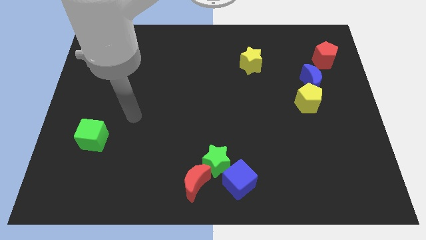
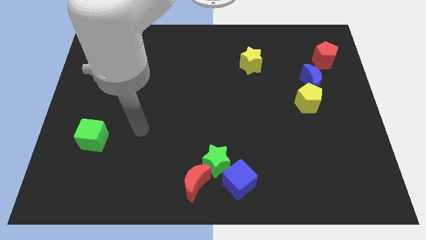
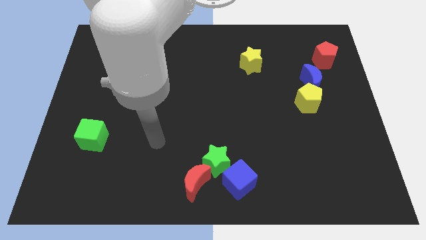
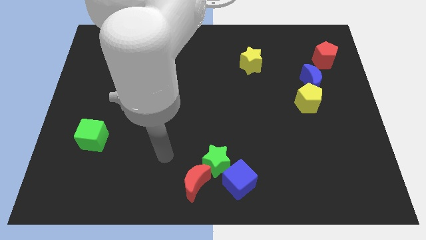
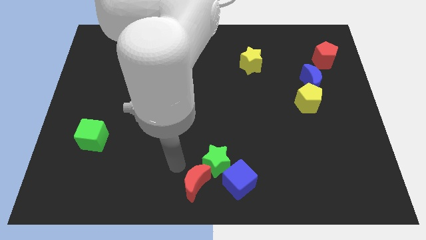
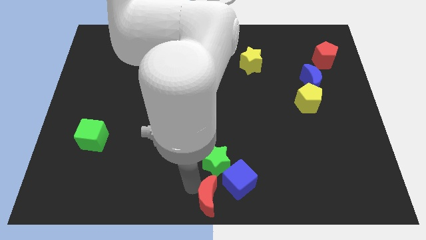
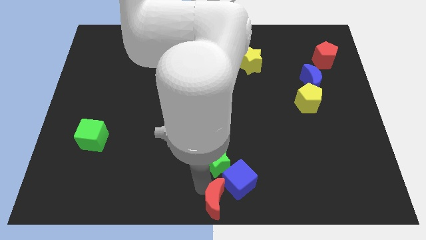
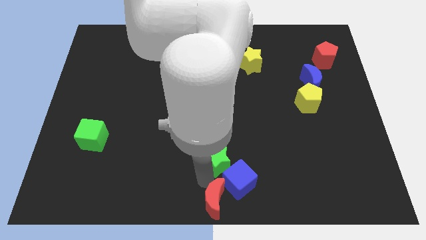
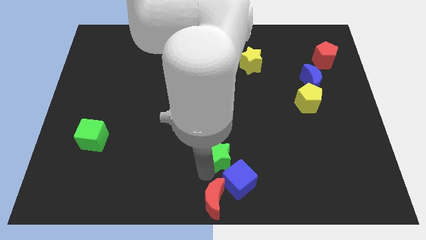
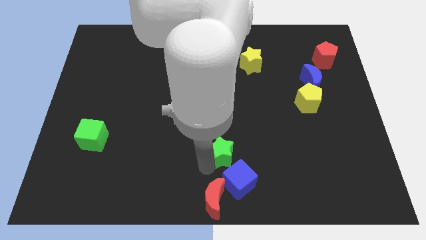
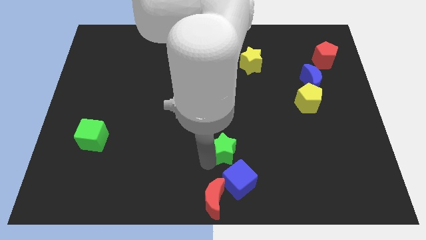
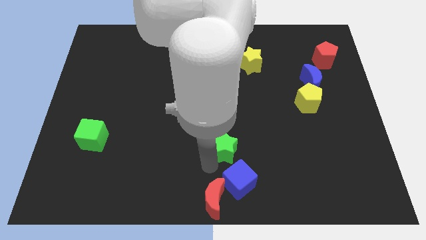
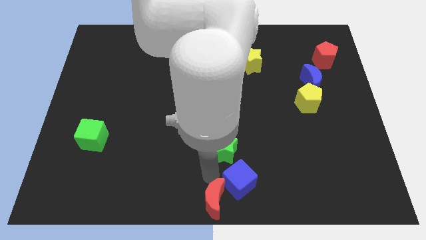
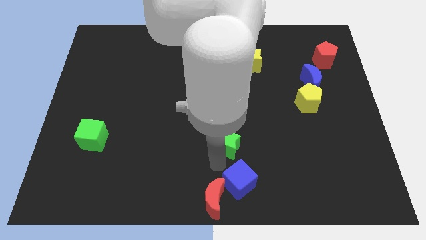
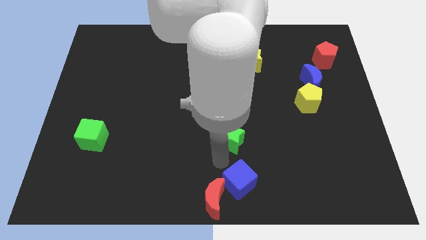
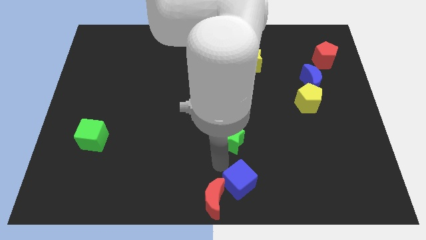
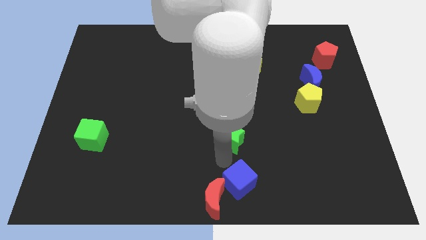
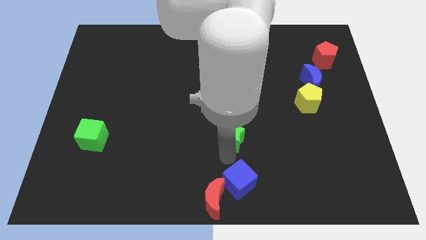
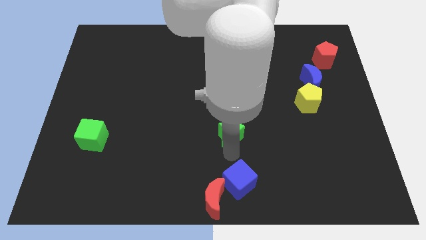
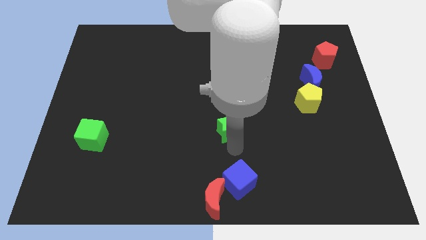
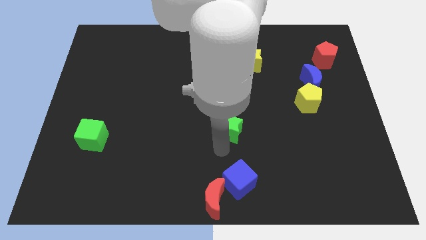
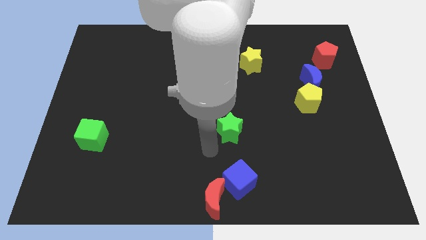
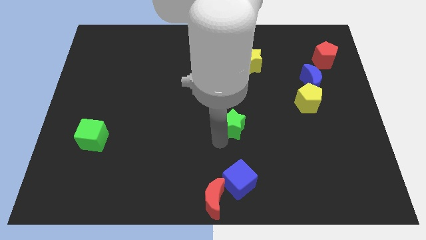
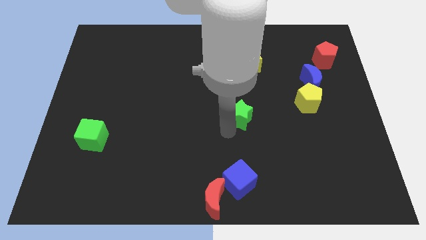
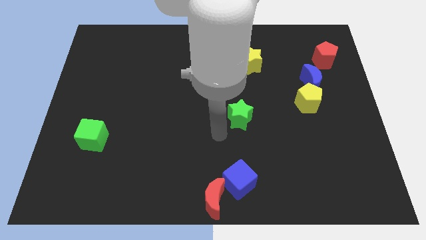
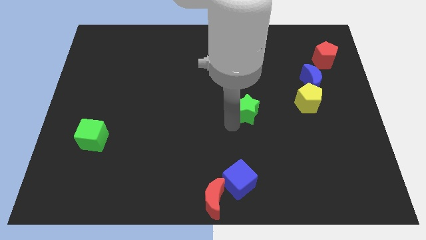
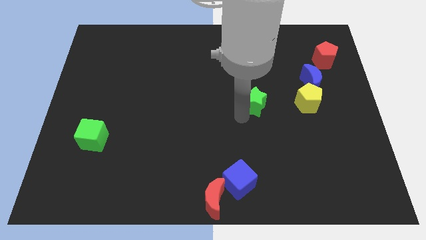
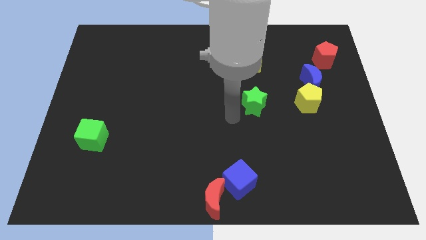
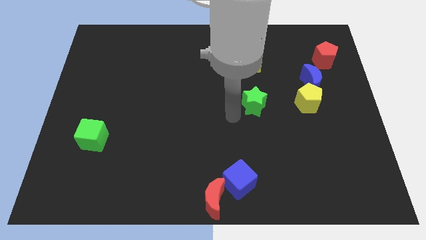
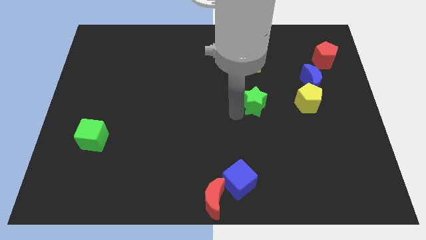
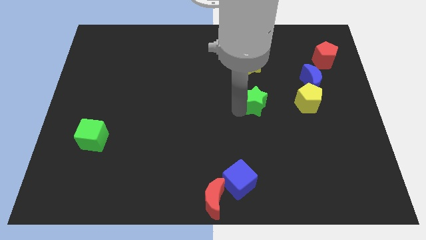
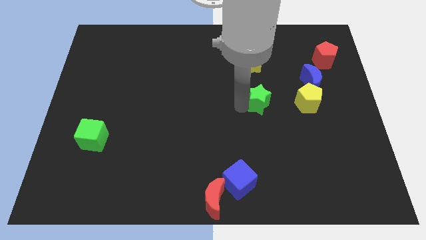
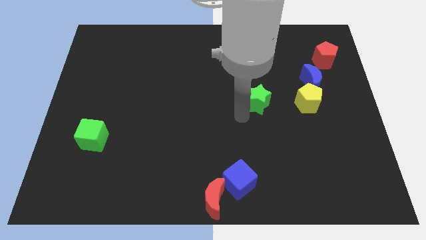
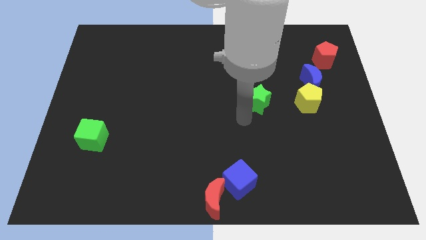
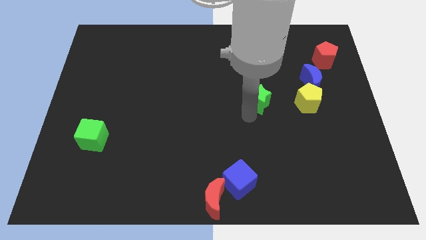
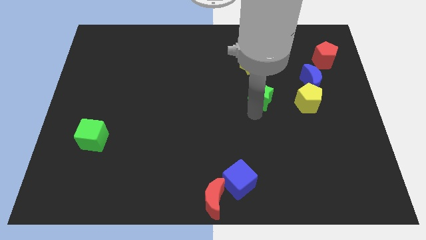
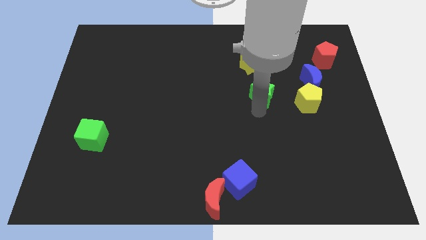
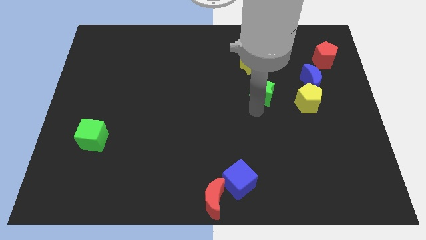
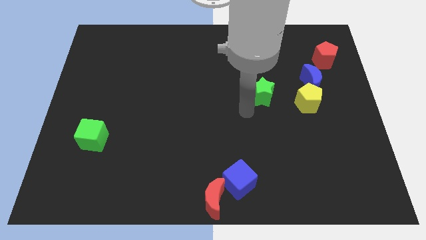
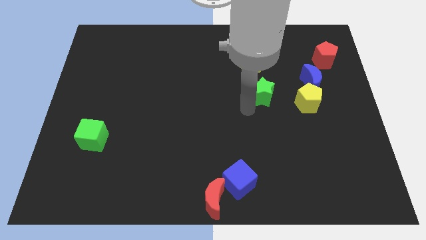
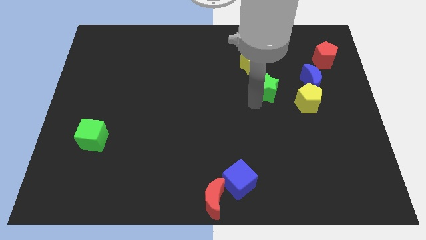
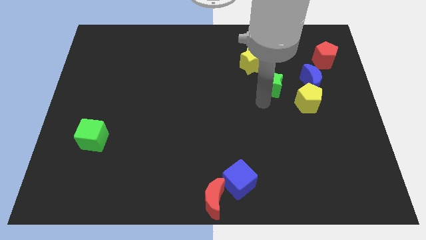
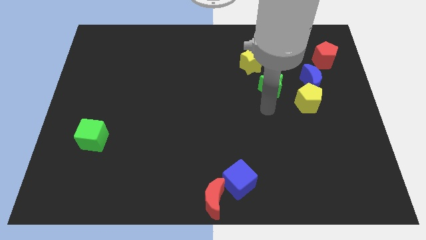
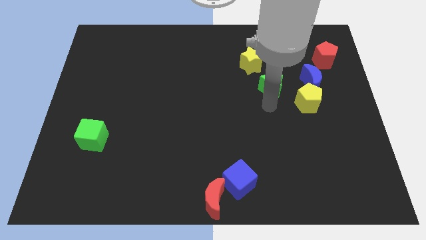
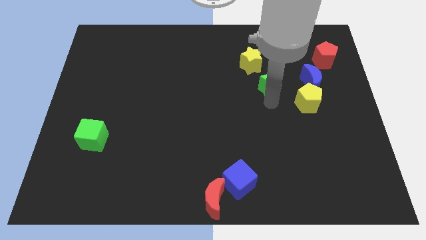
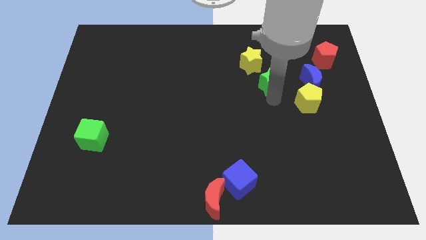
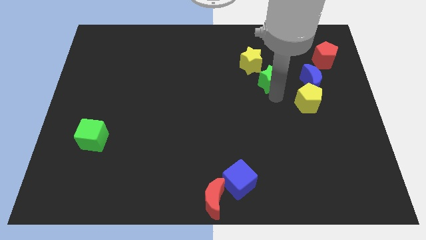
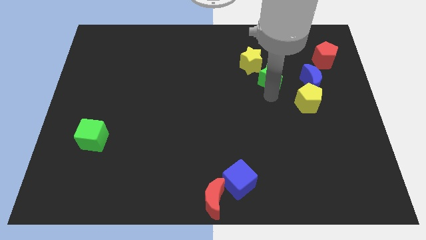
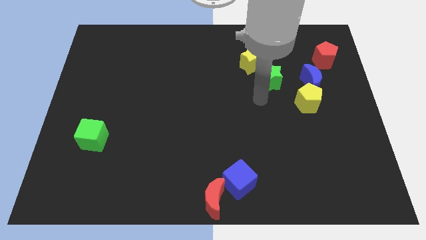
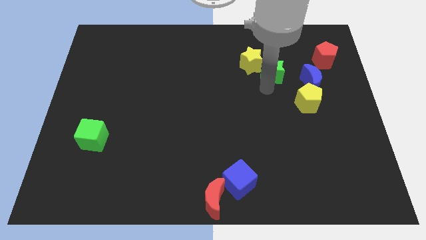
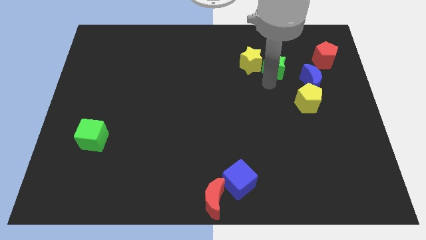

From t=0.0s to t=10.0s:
put the green star left of the red pentagon

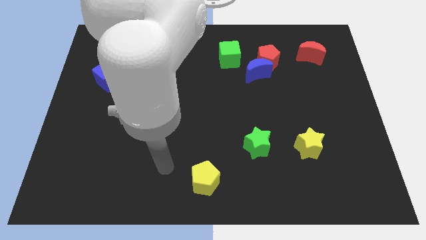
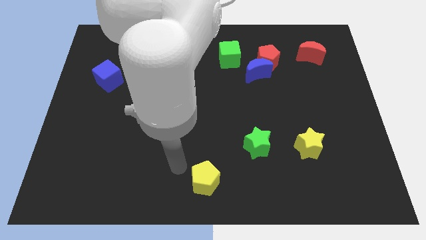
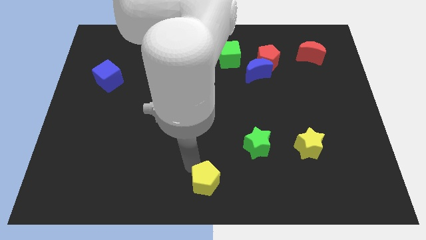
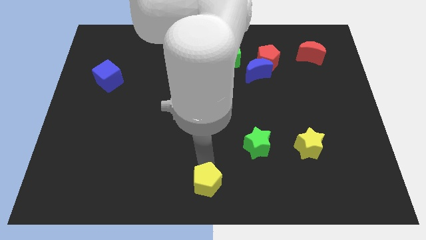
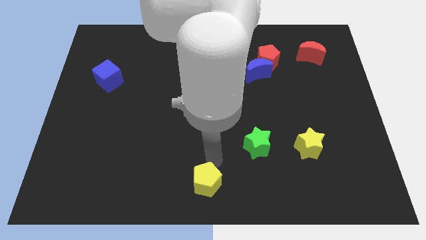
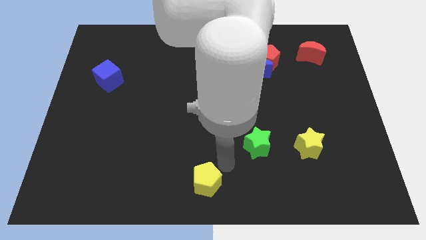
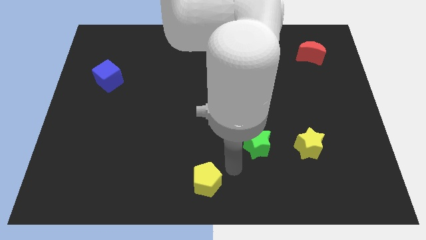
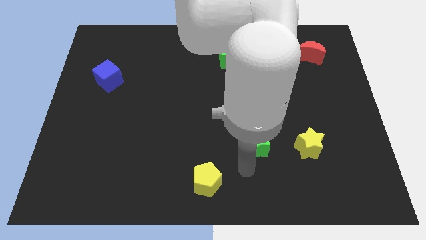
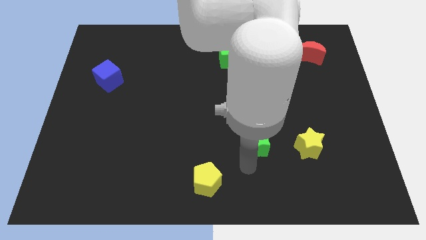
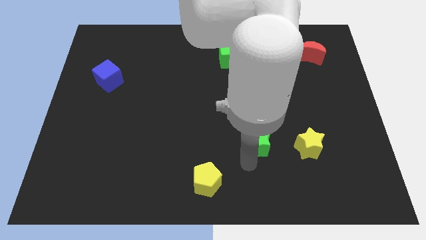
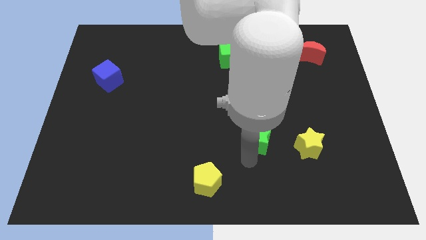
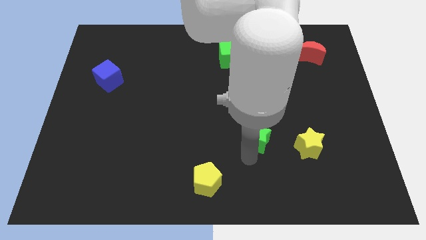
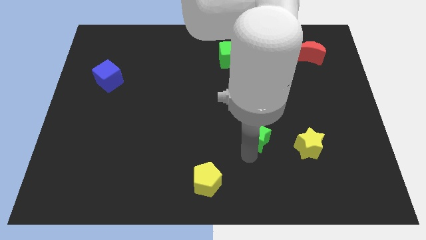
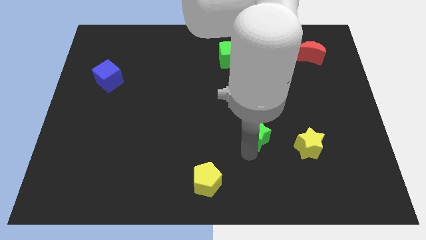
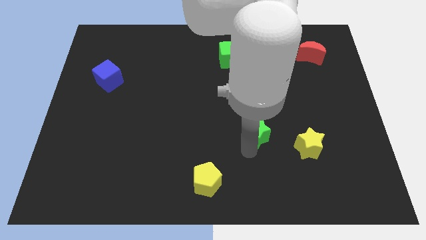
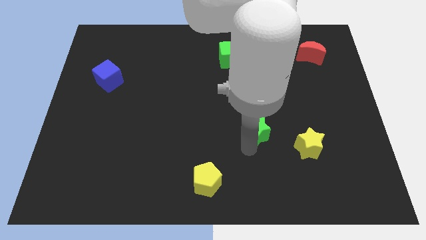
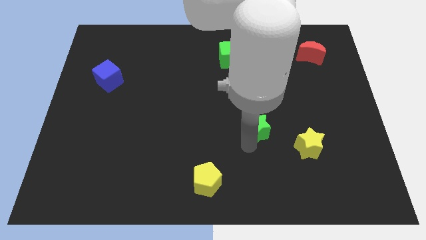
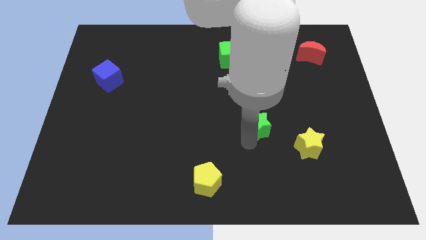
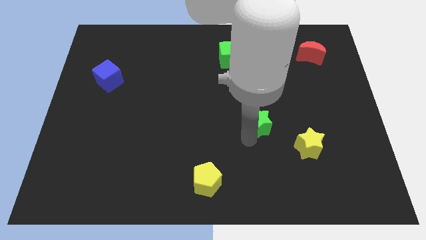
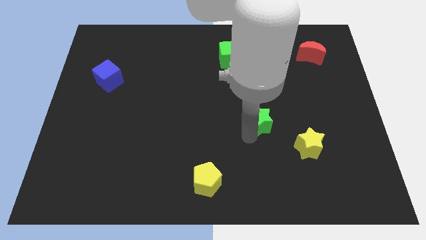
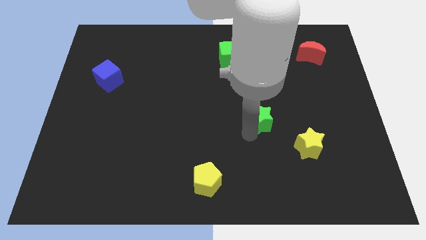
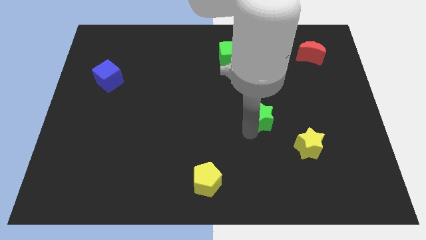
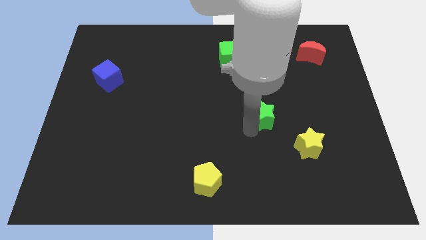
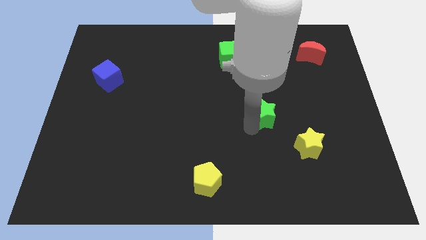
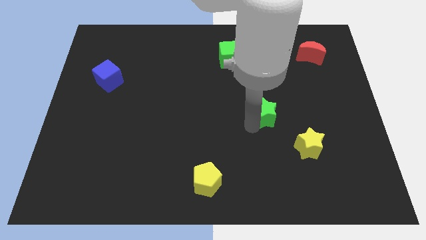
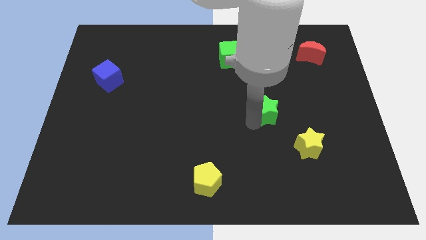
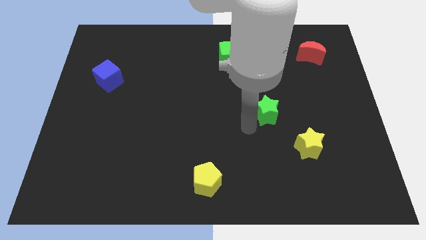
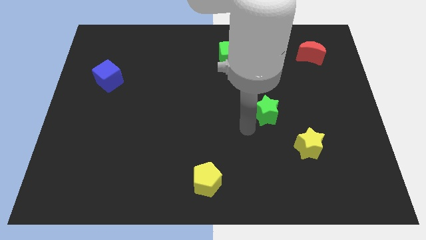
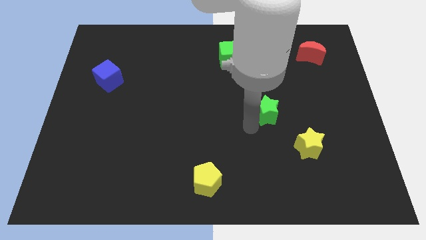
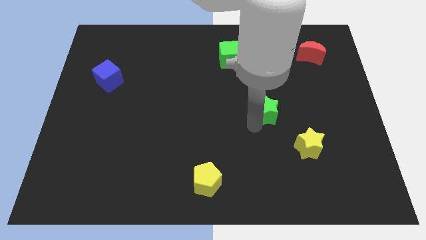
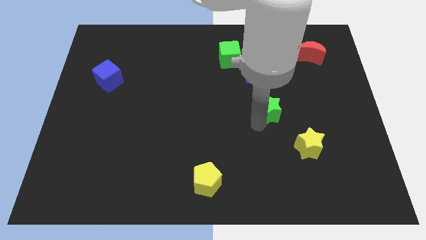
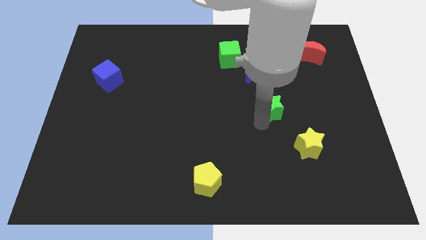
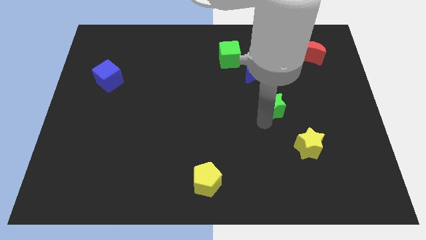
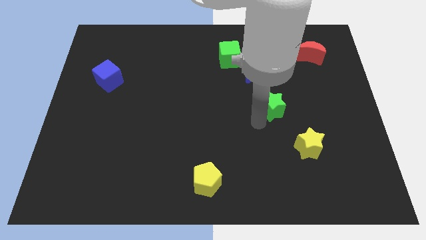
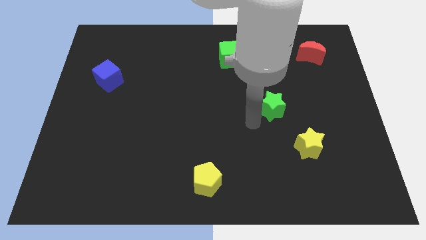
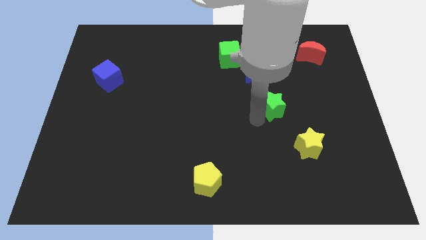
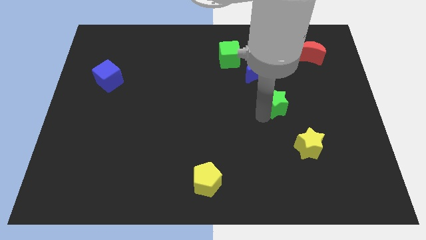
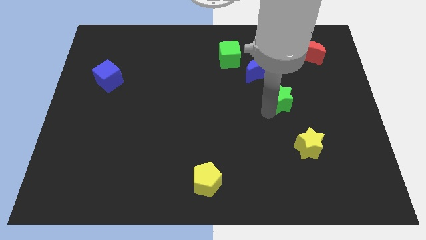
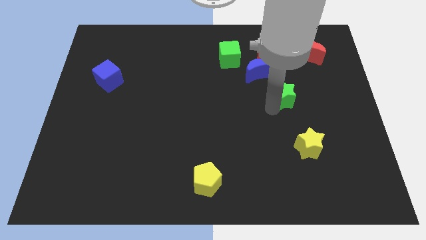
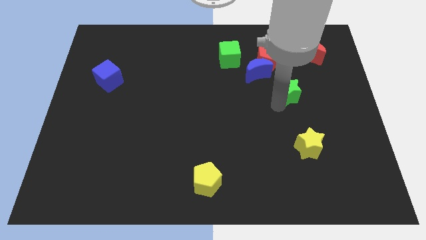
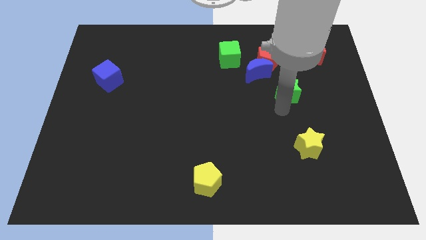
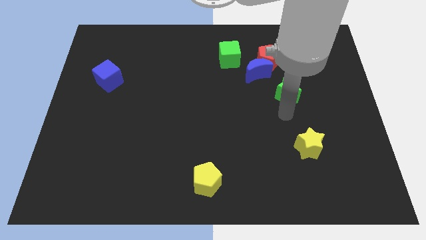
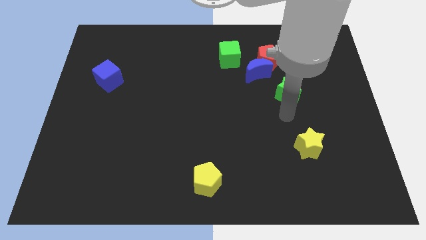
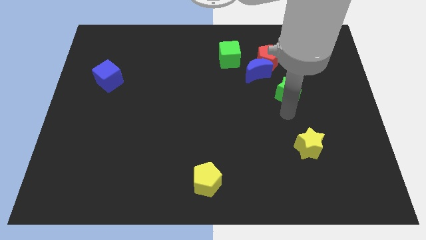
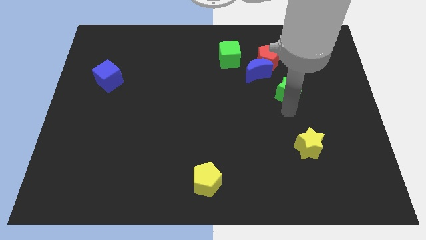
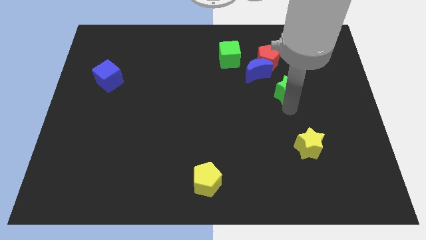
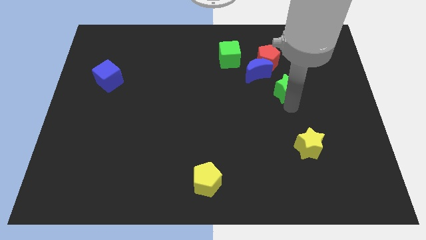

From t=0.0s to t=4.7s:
put the green star to the bottom right of the red pentagon
